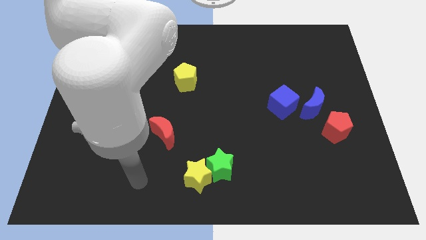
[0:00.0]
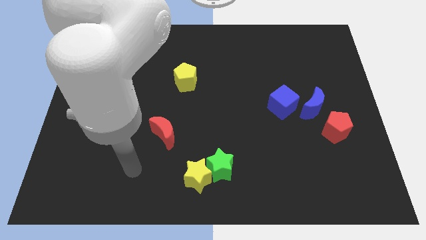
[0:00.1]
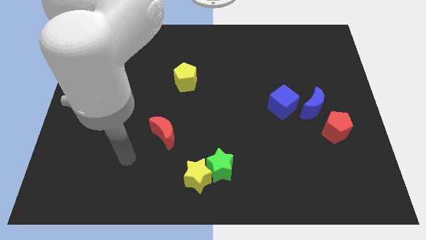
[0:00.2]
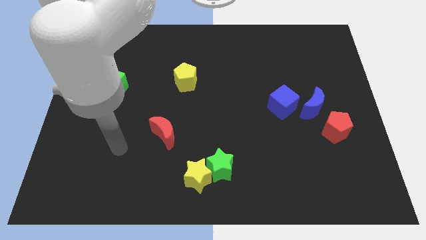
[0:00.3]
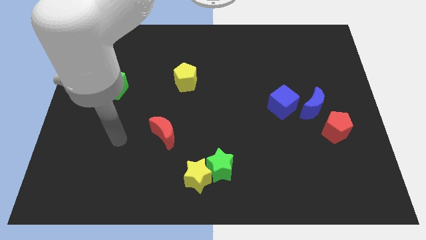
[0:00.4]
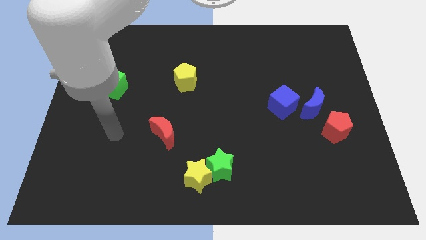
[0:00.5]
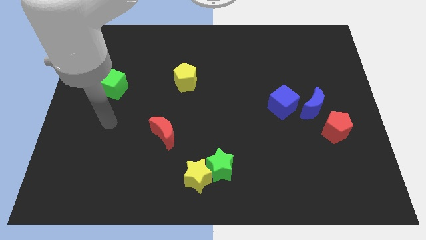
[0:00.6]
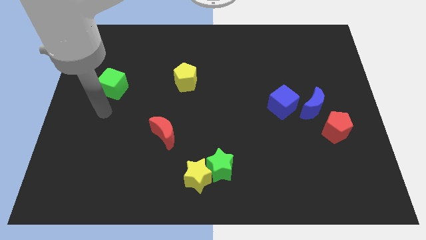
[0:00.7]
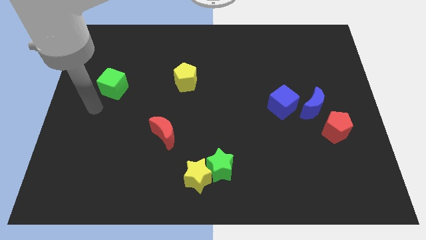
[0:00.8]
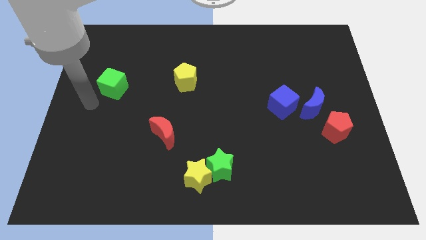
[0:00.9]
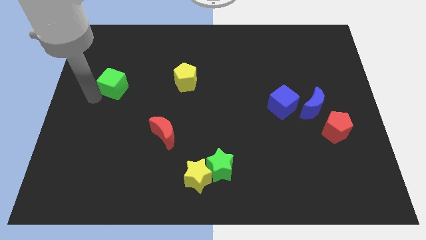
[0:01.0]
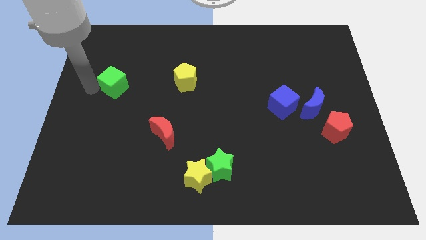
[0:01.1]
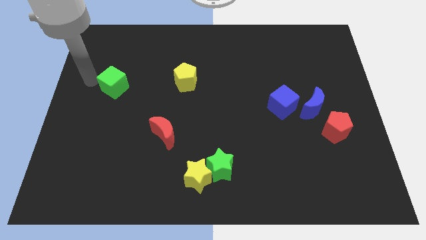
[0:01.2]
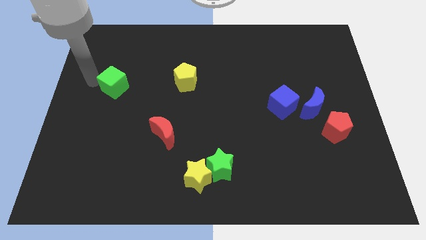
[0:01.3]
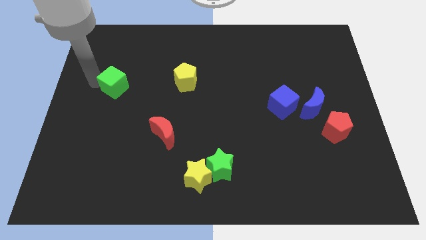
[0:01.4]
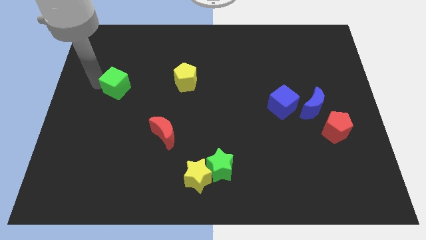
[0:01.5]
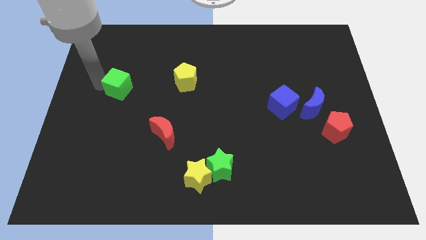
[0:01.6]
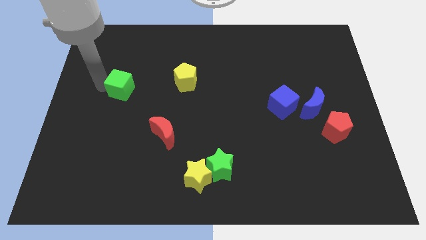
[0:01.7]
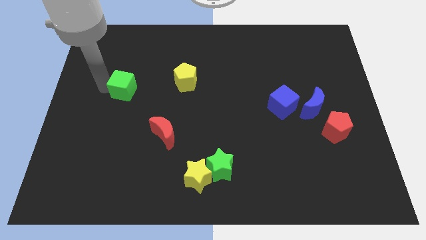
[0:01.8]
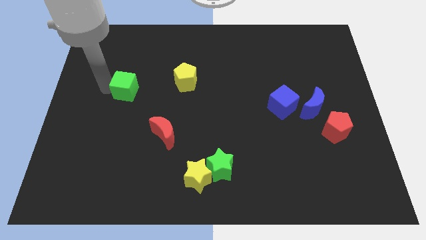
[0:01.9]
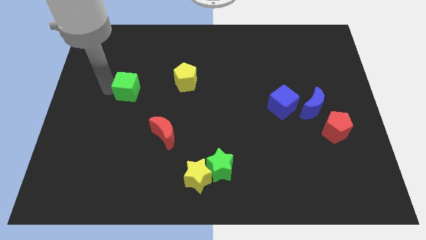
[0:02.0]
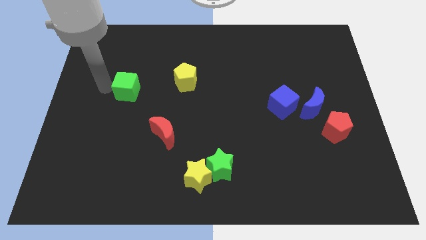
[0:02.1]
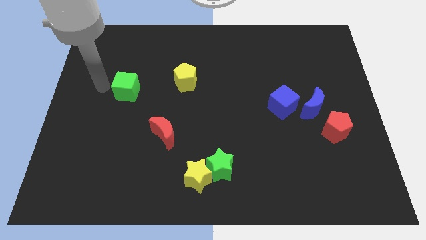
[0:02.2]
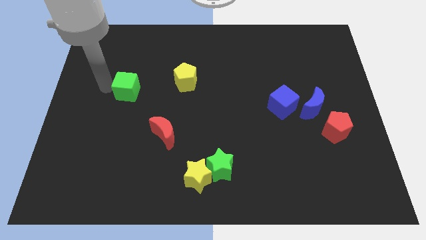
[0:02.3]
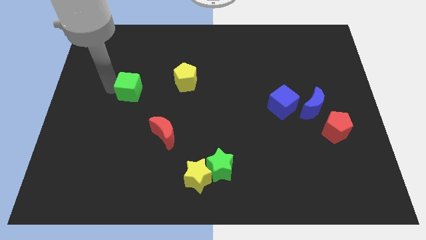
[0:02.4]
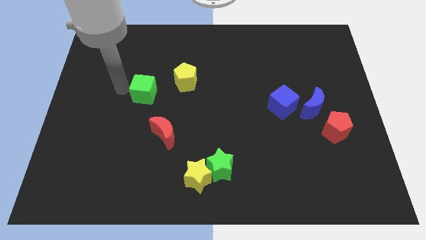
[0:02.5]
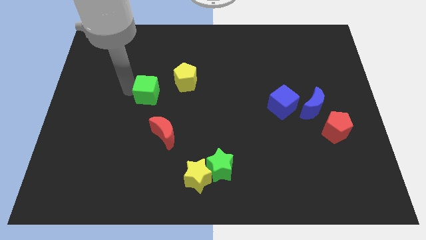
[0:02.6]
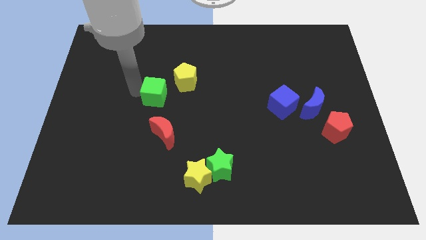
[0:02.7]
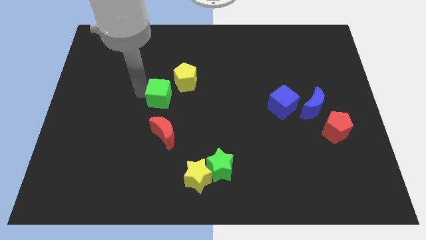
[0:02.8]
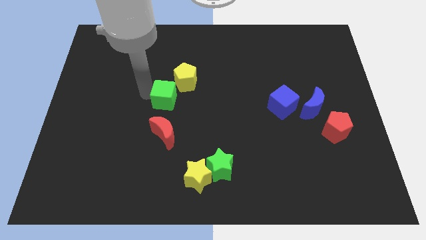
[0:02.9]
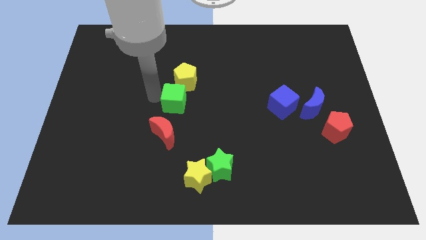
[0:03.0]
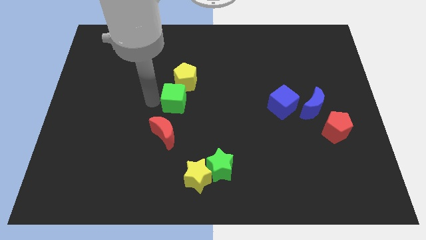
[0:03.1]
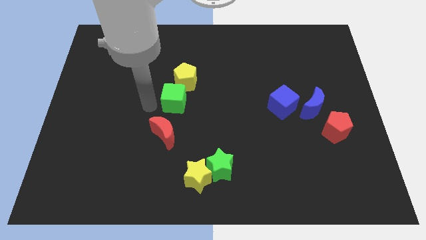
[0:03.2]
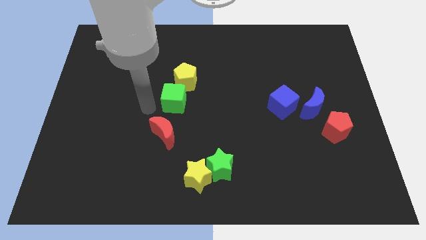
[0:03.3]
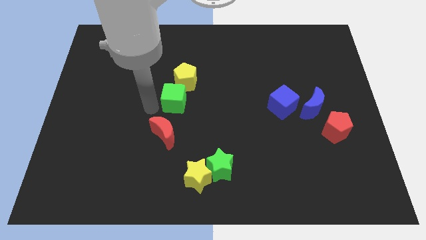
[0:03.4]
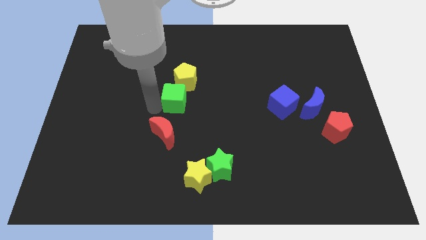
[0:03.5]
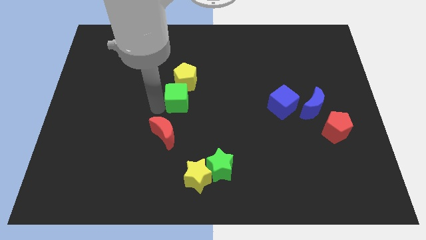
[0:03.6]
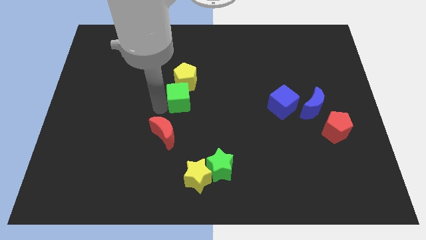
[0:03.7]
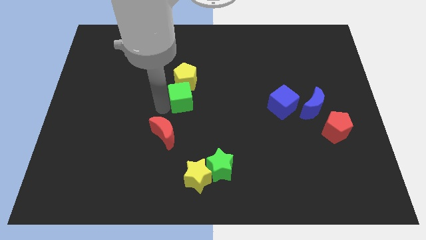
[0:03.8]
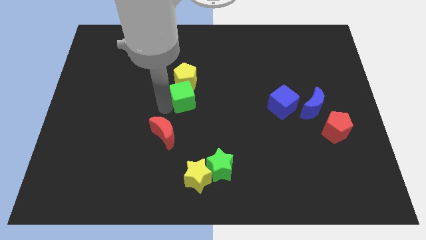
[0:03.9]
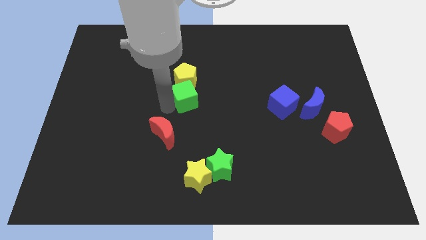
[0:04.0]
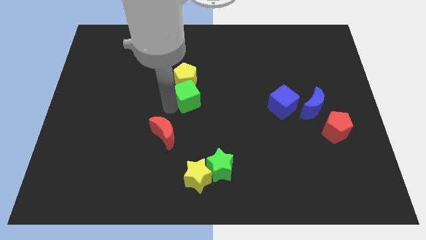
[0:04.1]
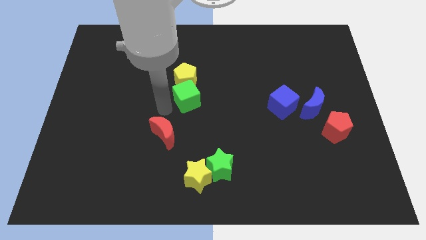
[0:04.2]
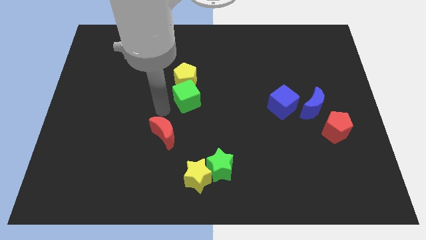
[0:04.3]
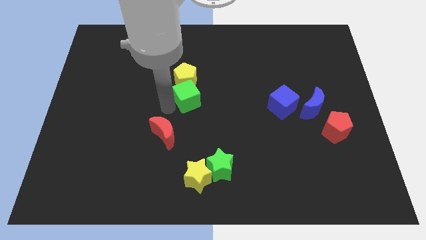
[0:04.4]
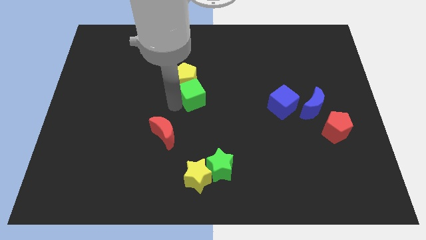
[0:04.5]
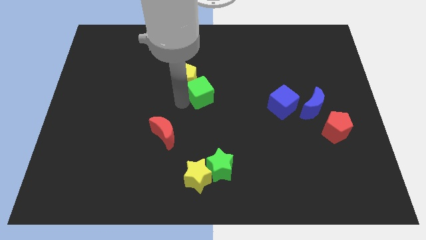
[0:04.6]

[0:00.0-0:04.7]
slide the green cube to the right

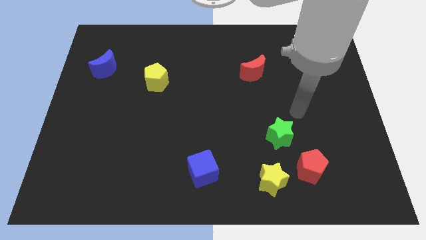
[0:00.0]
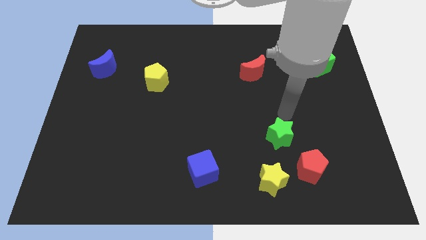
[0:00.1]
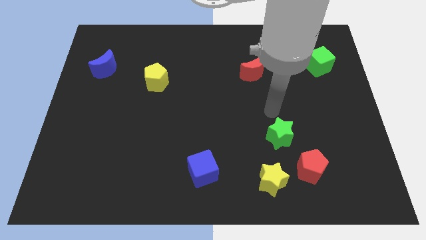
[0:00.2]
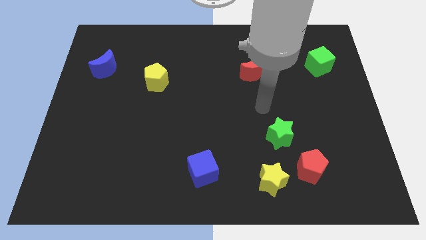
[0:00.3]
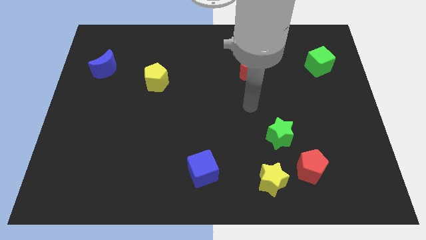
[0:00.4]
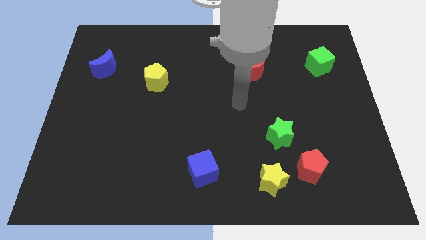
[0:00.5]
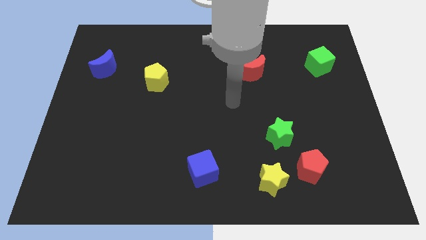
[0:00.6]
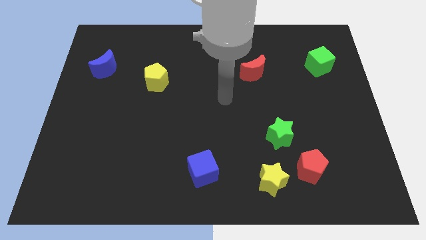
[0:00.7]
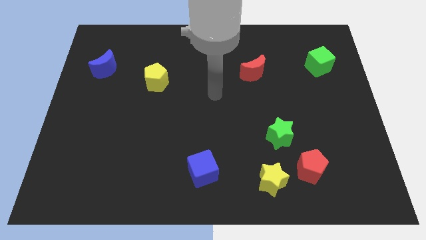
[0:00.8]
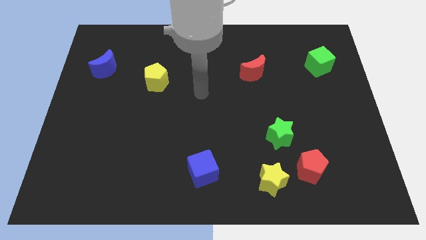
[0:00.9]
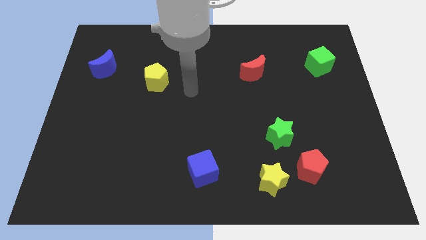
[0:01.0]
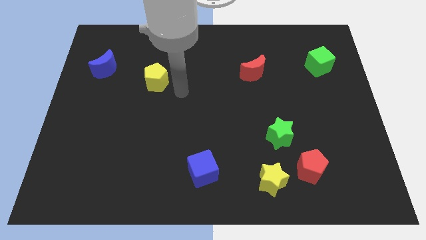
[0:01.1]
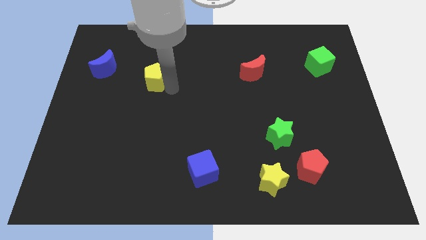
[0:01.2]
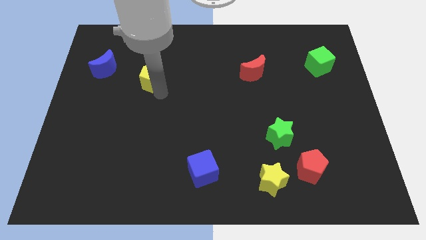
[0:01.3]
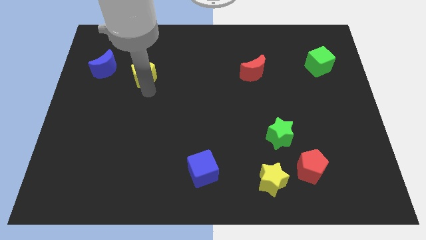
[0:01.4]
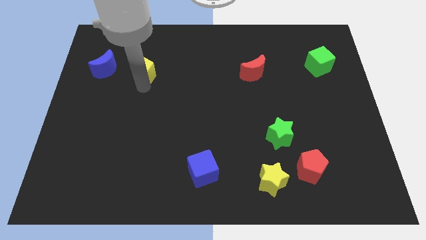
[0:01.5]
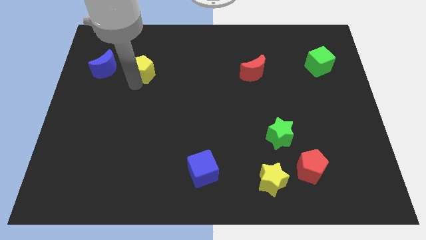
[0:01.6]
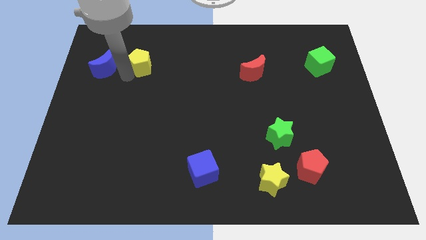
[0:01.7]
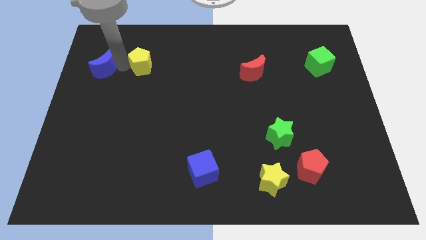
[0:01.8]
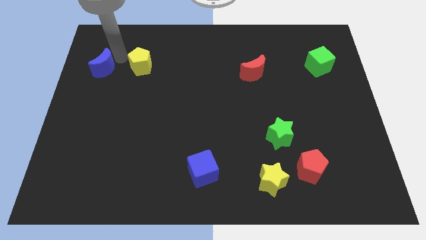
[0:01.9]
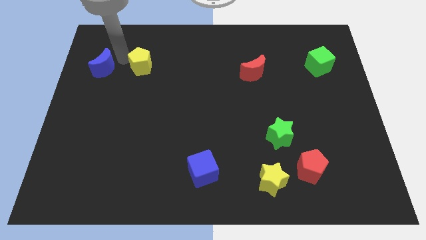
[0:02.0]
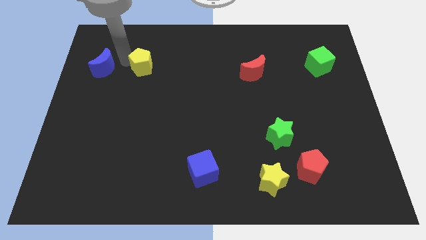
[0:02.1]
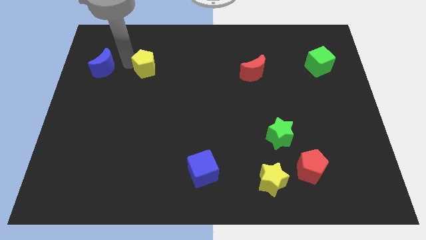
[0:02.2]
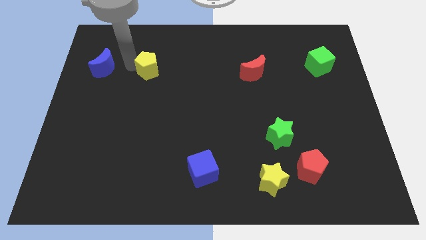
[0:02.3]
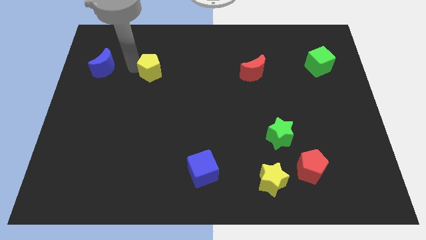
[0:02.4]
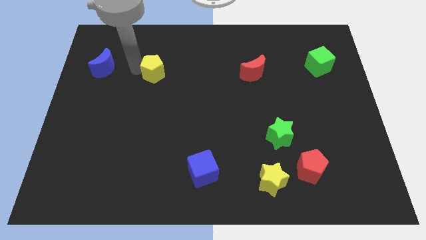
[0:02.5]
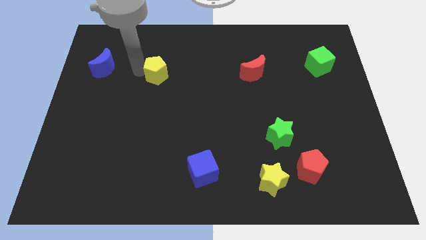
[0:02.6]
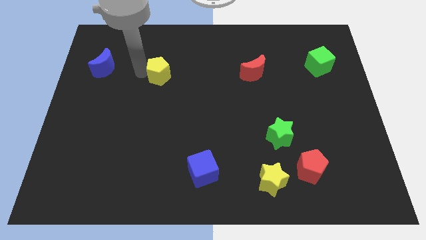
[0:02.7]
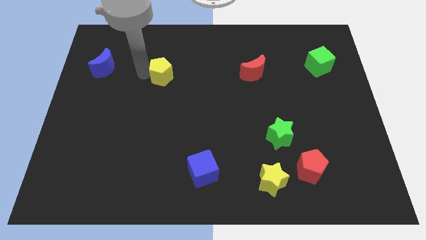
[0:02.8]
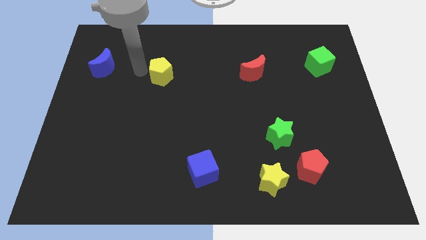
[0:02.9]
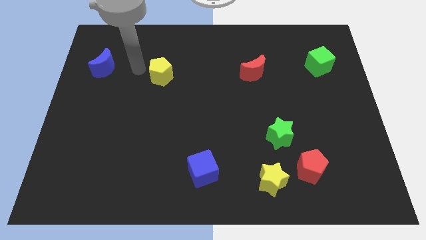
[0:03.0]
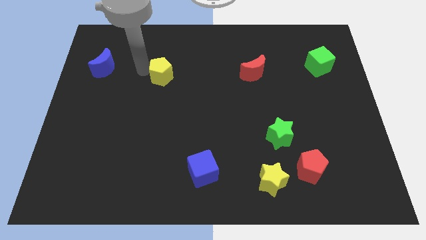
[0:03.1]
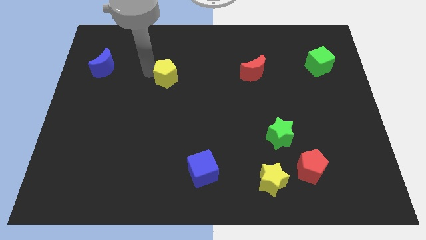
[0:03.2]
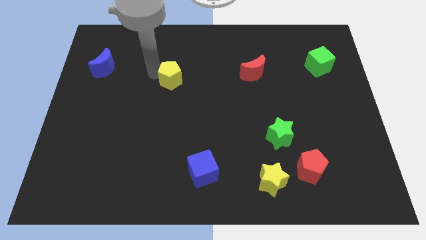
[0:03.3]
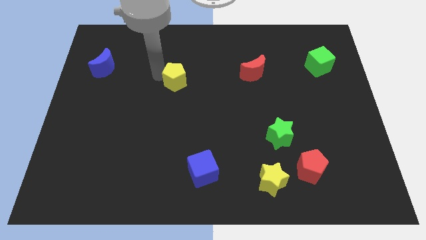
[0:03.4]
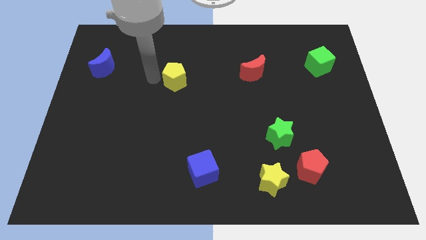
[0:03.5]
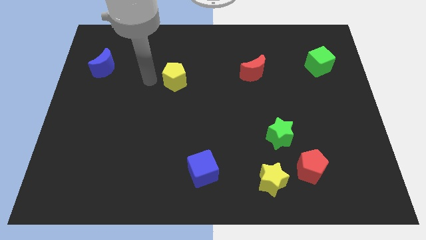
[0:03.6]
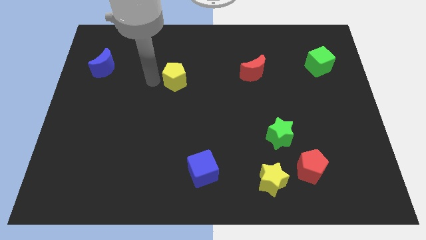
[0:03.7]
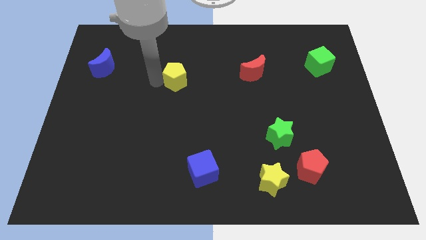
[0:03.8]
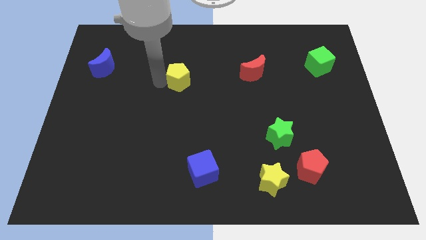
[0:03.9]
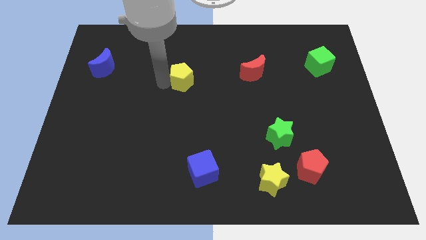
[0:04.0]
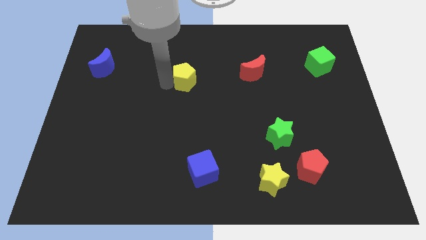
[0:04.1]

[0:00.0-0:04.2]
push the yellow pentagon to the right a little bit
